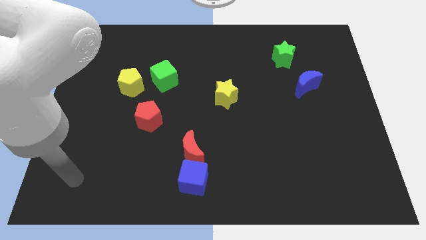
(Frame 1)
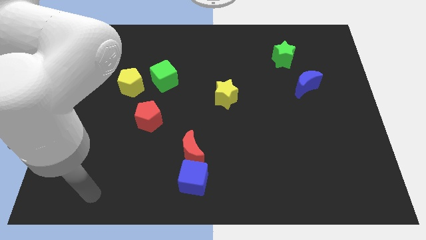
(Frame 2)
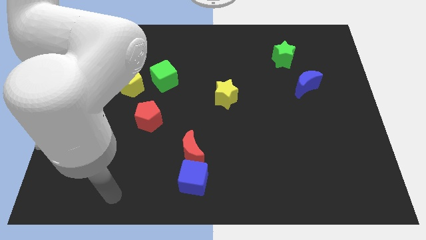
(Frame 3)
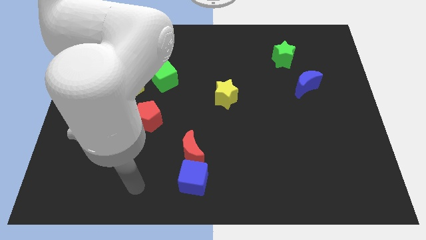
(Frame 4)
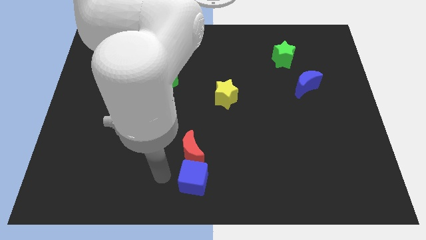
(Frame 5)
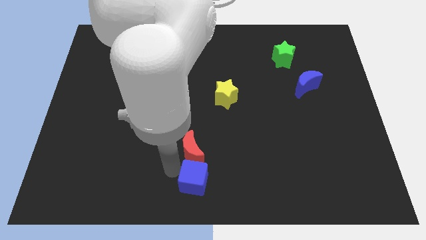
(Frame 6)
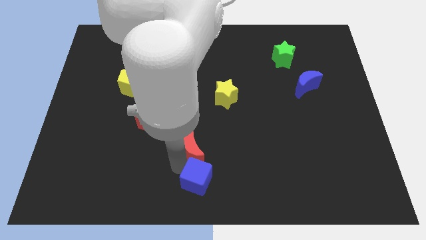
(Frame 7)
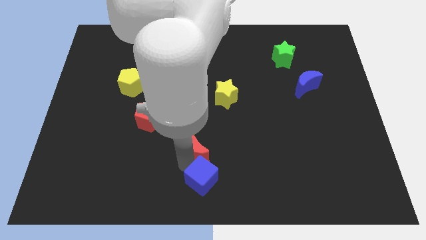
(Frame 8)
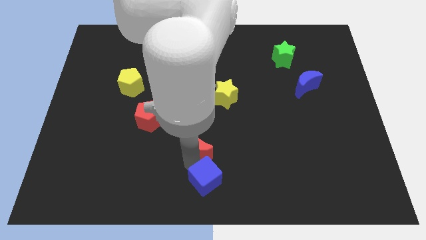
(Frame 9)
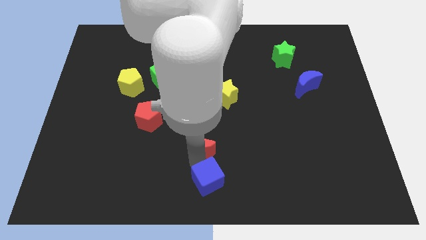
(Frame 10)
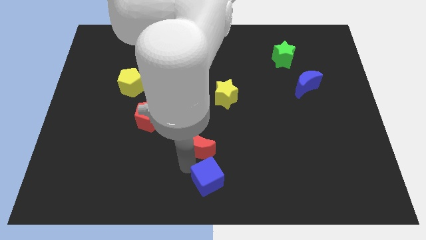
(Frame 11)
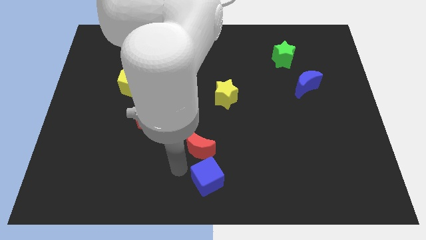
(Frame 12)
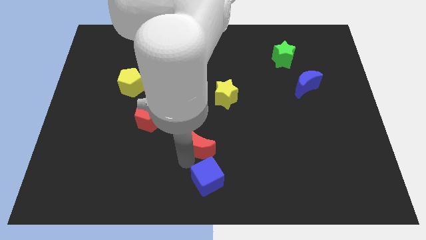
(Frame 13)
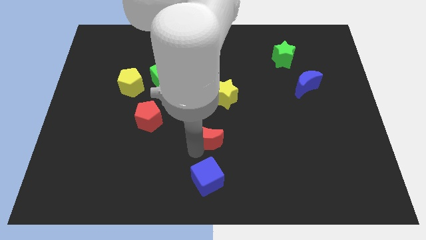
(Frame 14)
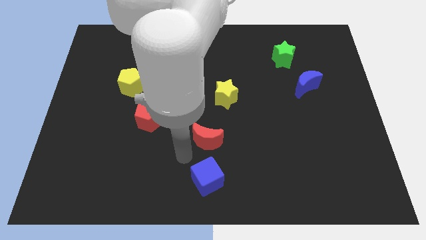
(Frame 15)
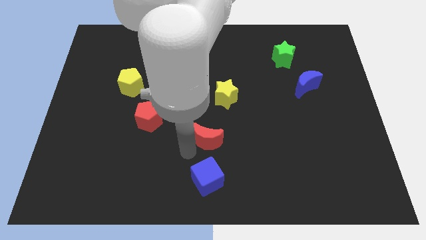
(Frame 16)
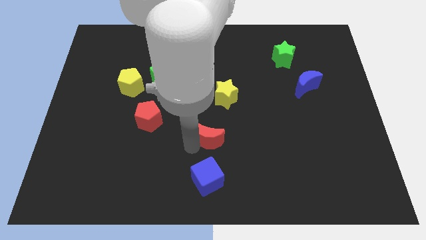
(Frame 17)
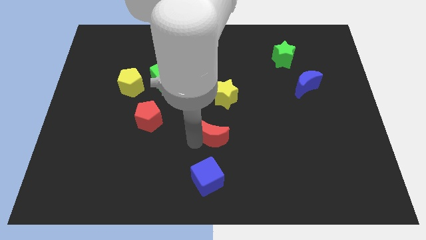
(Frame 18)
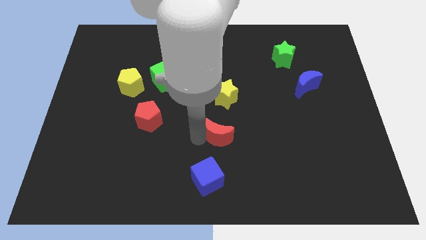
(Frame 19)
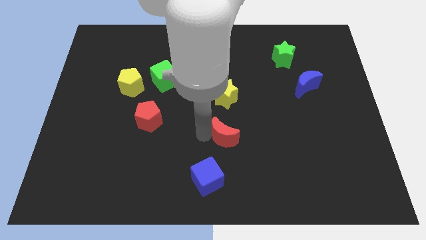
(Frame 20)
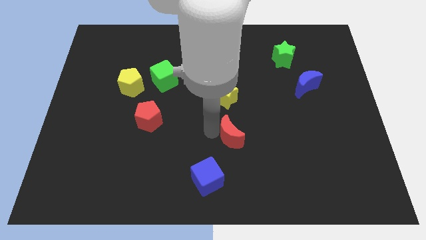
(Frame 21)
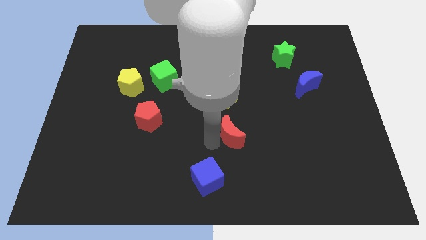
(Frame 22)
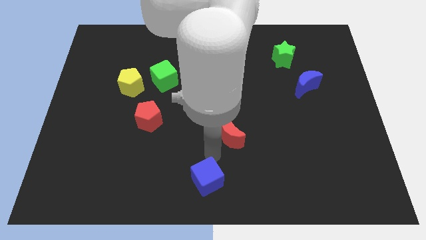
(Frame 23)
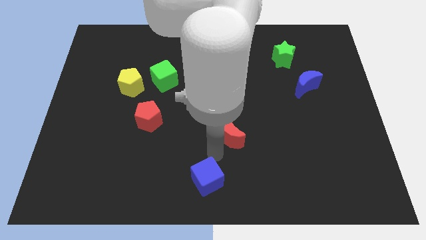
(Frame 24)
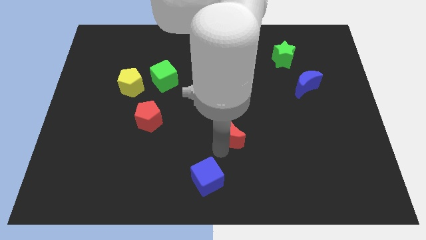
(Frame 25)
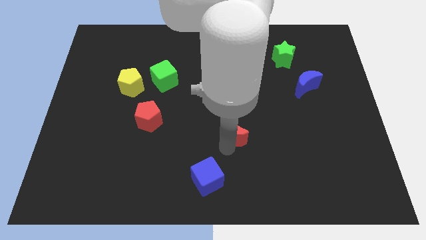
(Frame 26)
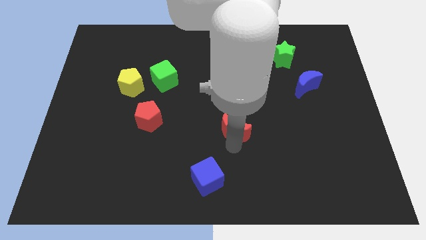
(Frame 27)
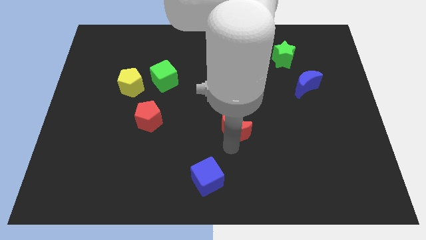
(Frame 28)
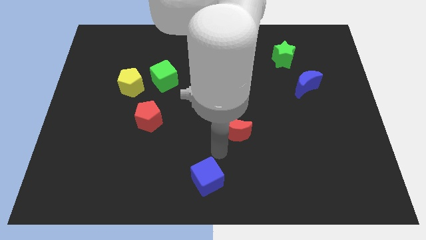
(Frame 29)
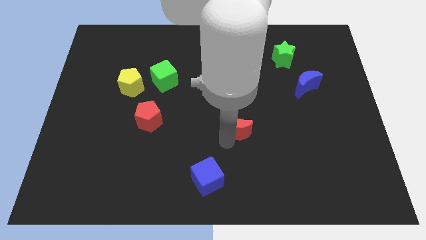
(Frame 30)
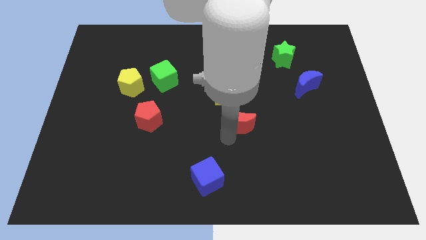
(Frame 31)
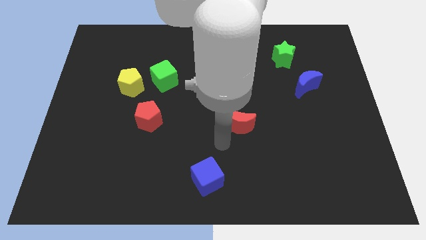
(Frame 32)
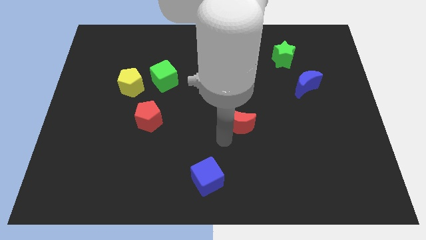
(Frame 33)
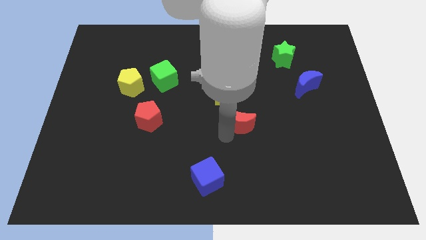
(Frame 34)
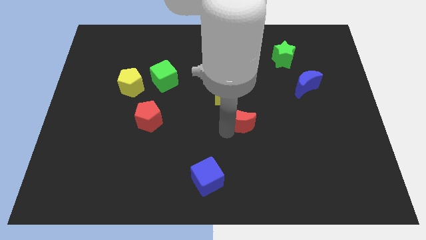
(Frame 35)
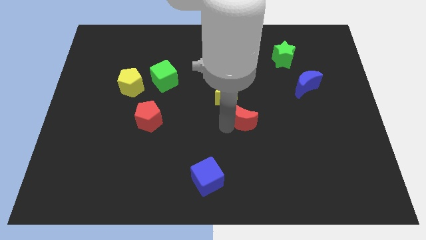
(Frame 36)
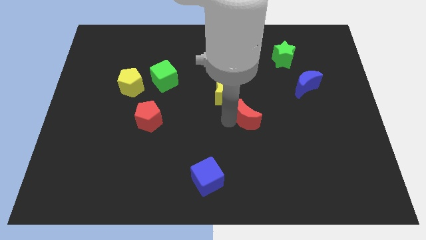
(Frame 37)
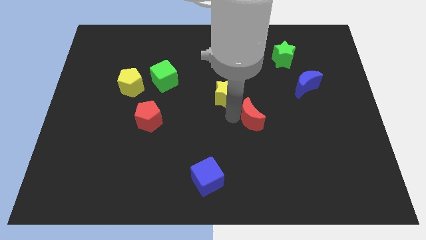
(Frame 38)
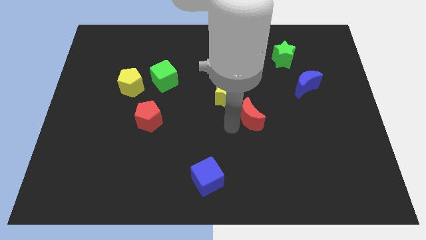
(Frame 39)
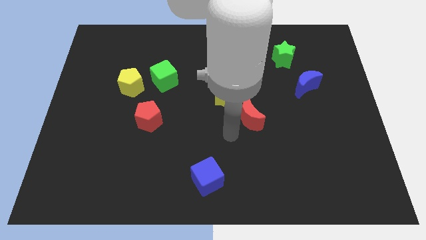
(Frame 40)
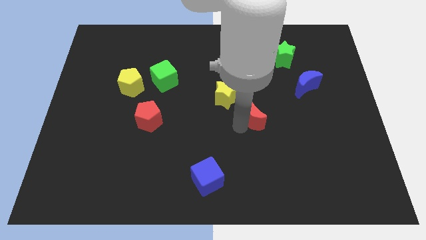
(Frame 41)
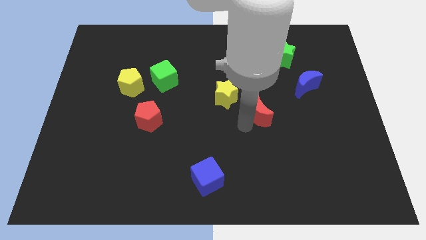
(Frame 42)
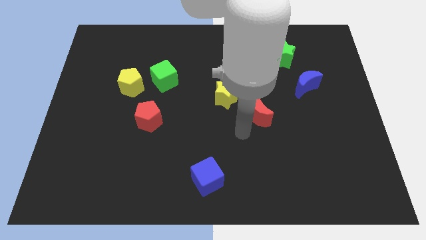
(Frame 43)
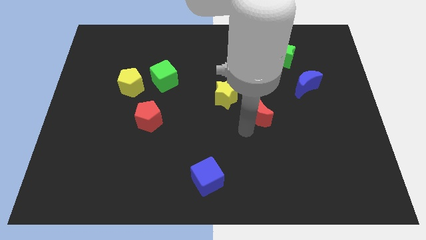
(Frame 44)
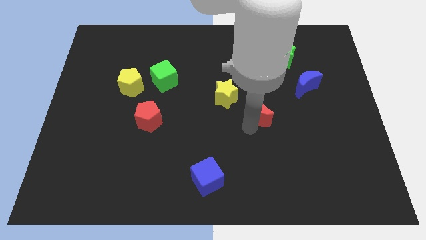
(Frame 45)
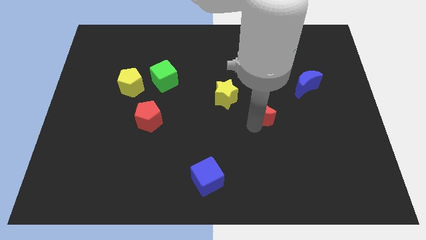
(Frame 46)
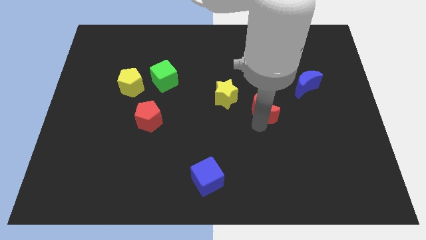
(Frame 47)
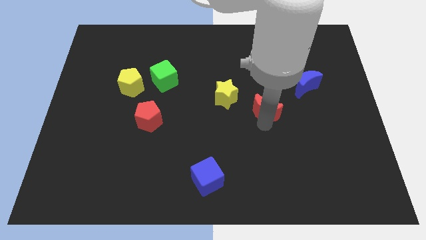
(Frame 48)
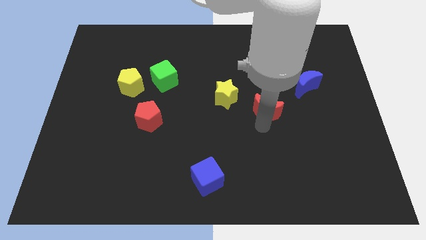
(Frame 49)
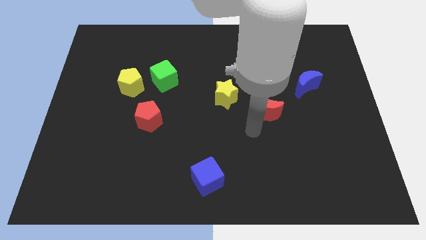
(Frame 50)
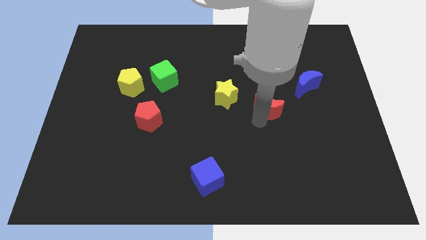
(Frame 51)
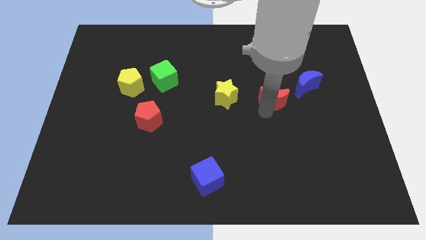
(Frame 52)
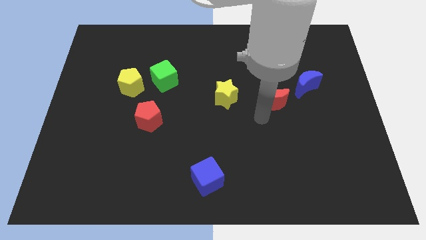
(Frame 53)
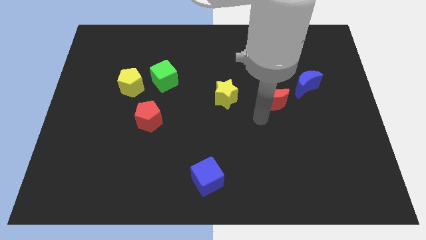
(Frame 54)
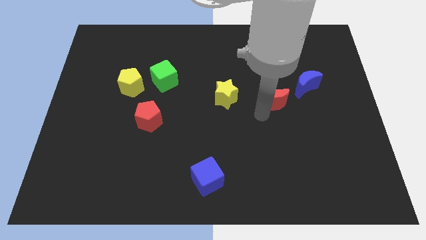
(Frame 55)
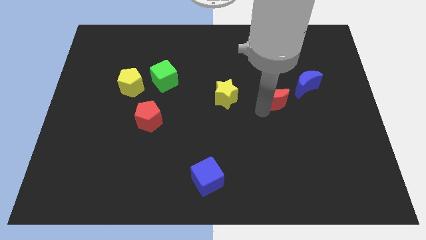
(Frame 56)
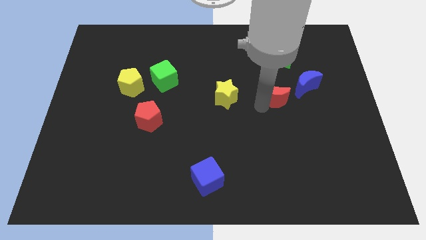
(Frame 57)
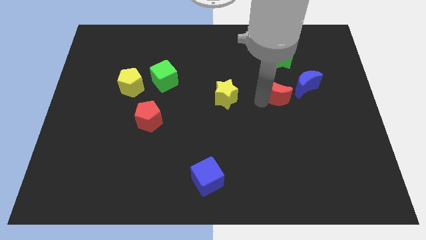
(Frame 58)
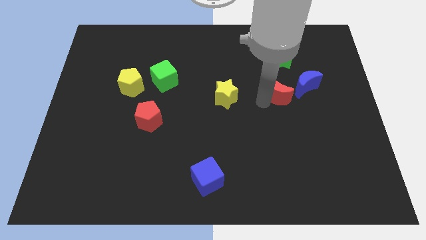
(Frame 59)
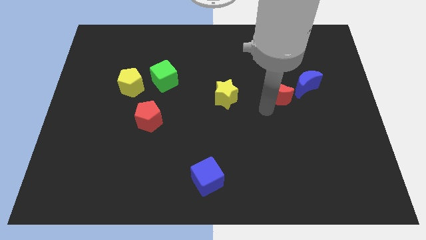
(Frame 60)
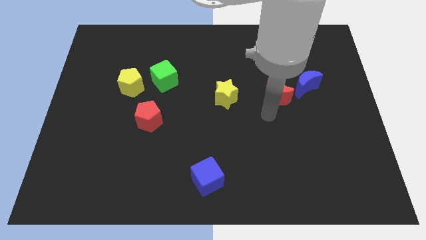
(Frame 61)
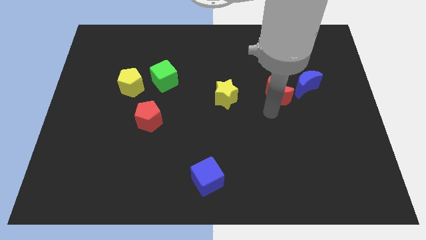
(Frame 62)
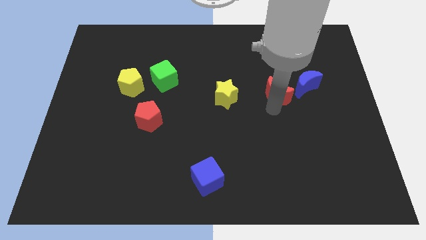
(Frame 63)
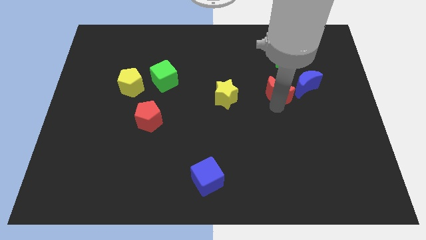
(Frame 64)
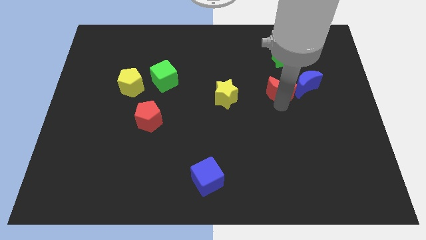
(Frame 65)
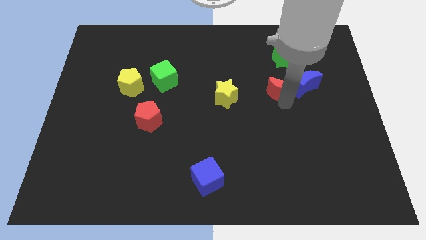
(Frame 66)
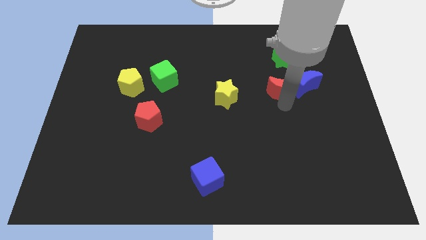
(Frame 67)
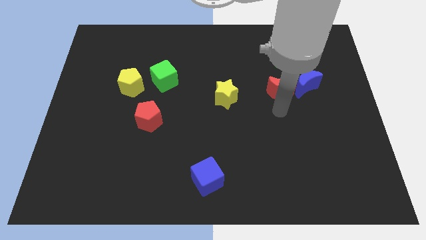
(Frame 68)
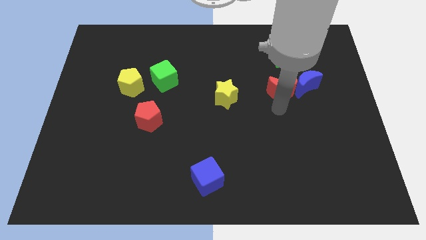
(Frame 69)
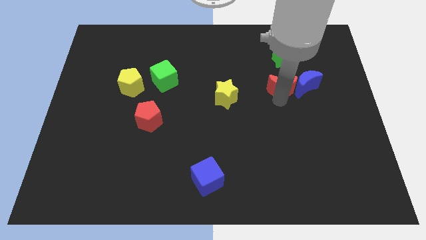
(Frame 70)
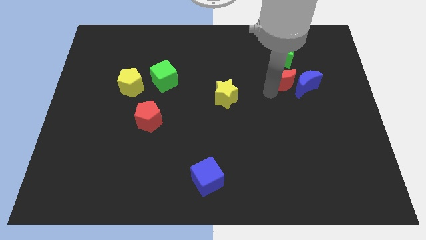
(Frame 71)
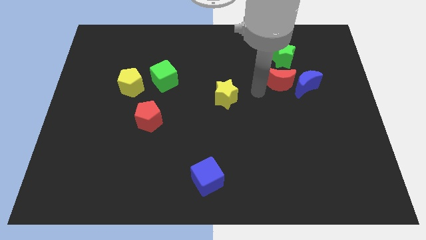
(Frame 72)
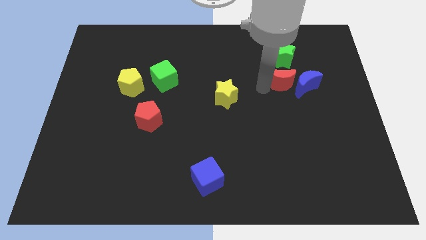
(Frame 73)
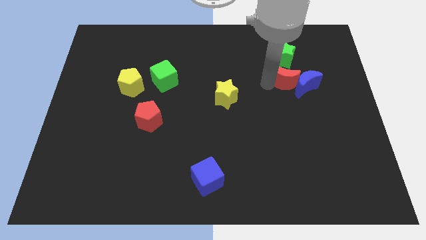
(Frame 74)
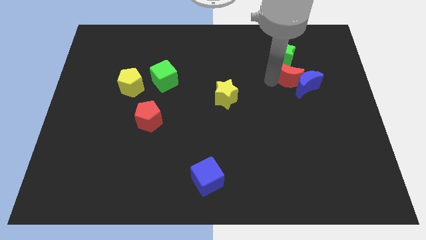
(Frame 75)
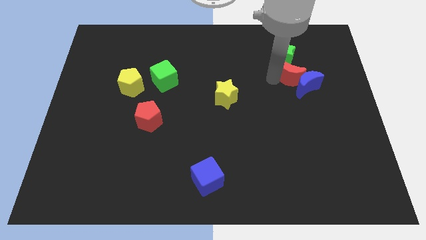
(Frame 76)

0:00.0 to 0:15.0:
put the red moon to the bottom right side of the green star
